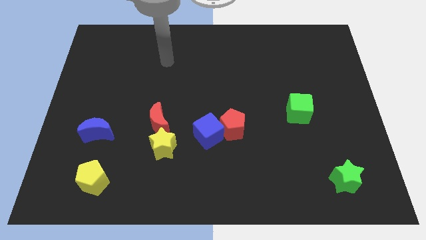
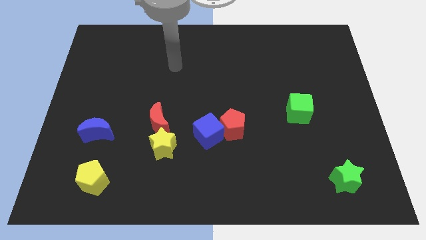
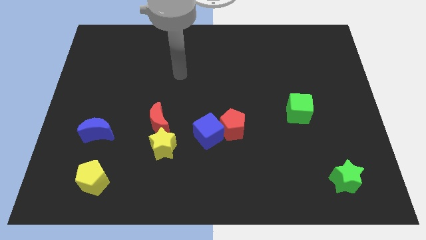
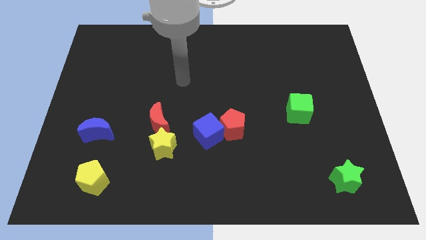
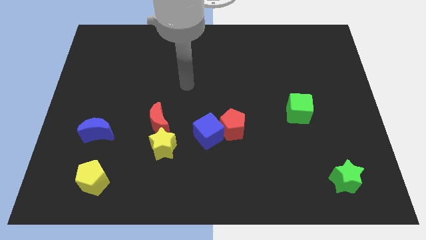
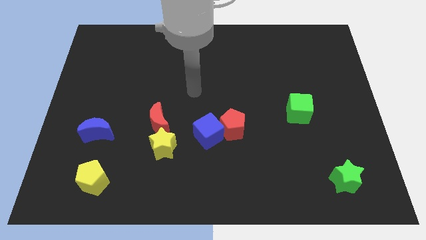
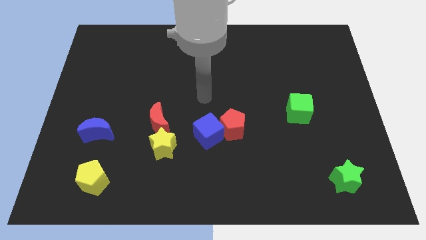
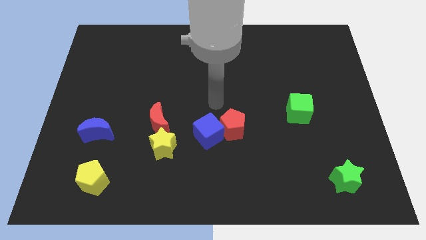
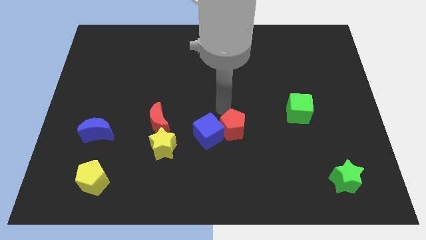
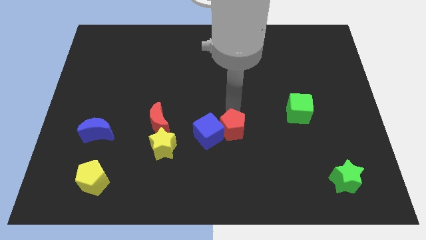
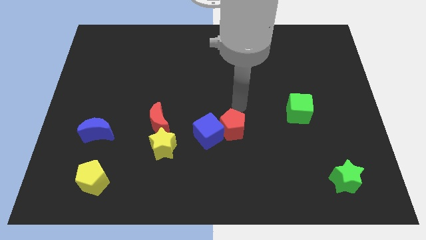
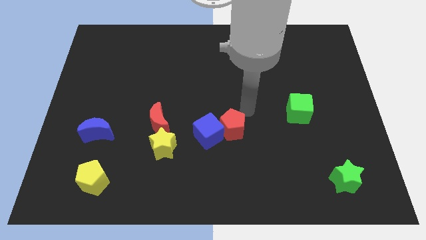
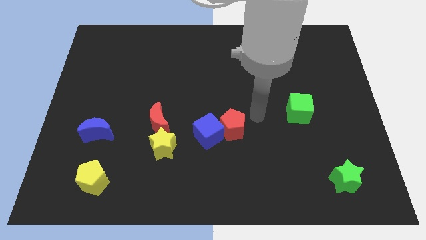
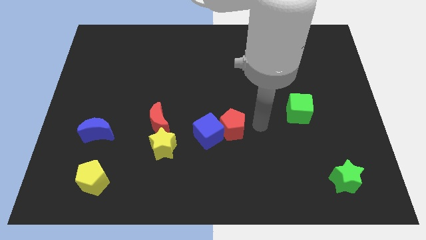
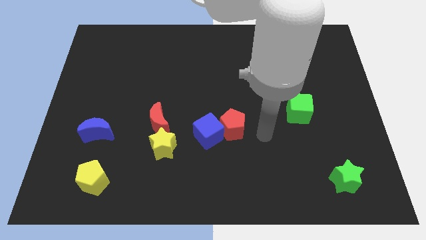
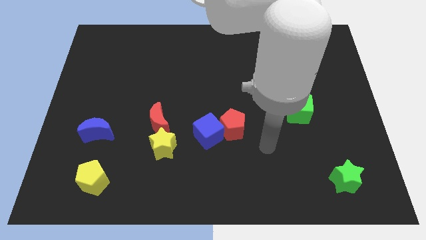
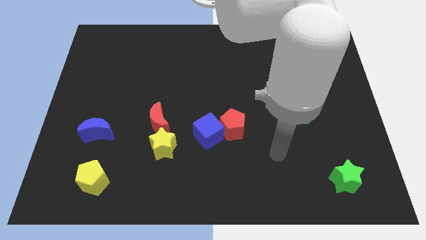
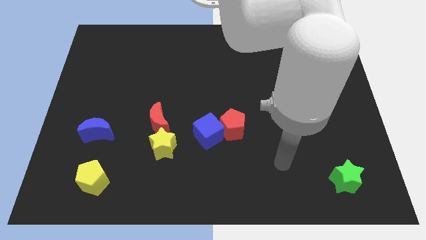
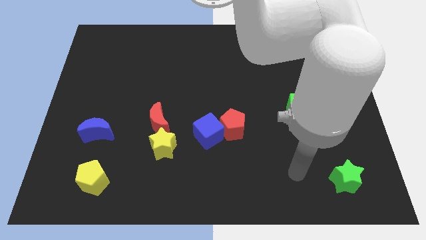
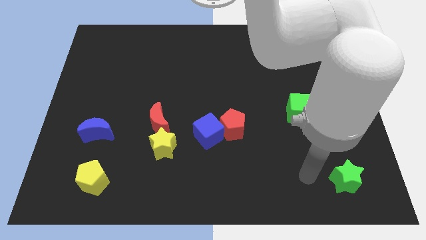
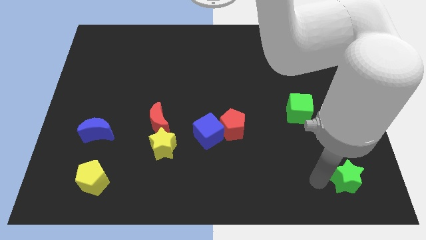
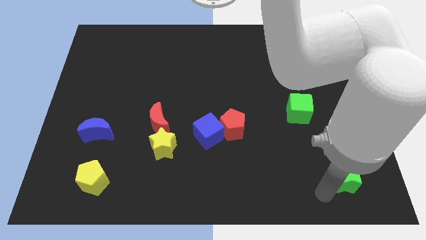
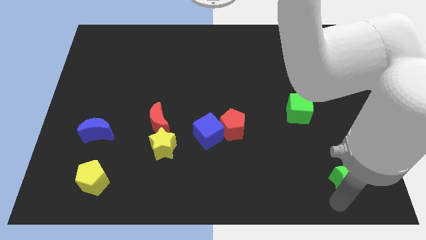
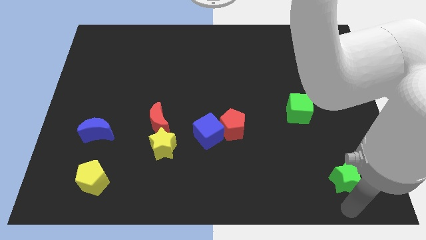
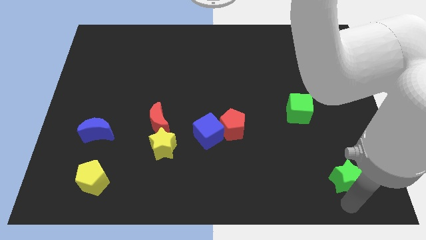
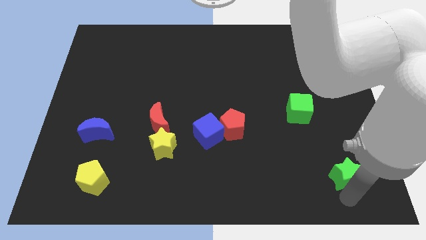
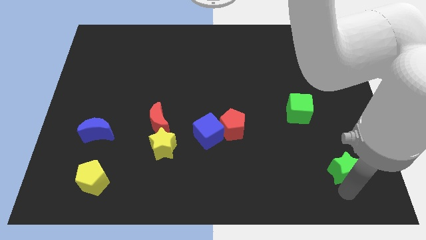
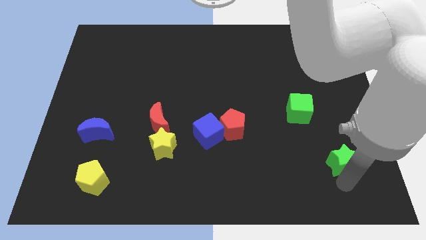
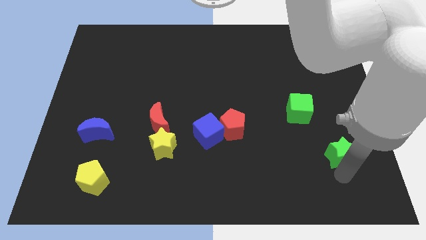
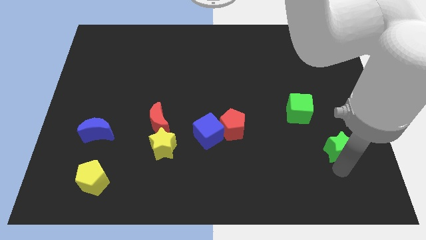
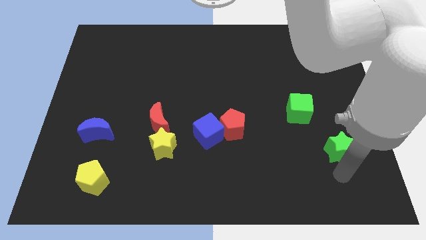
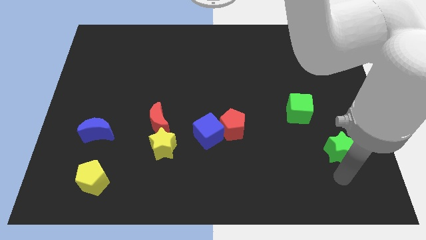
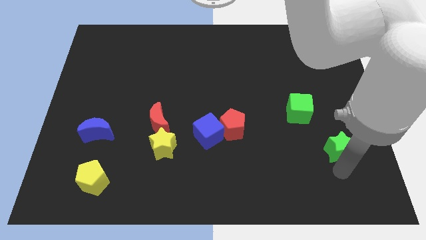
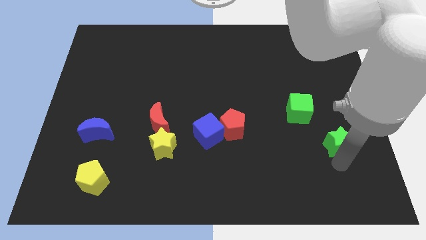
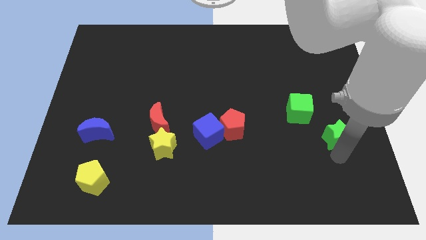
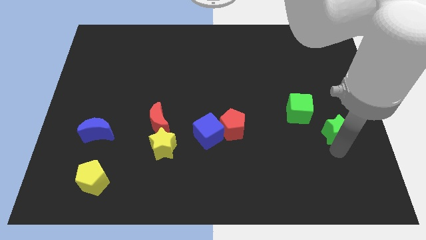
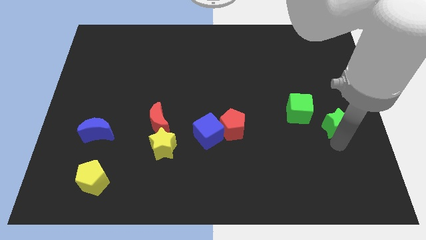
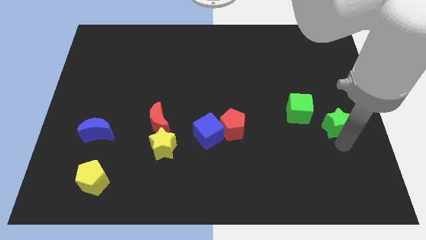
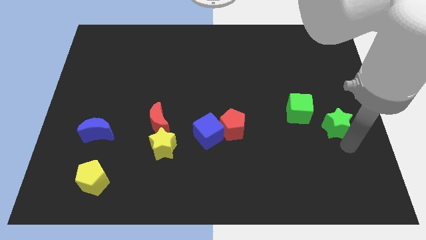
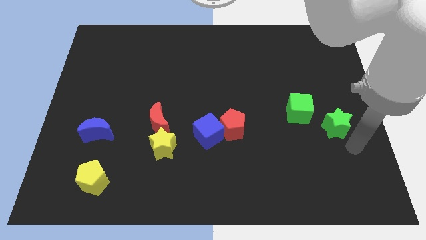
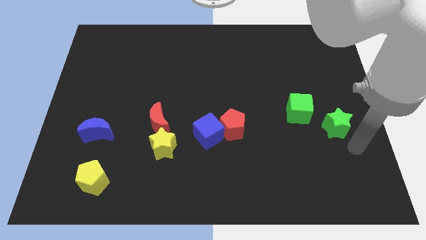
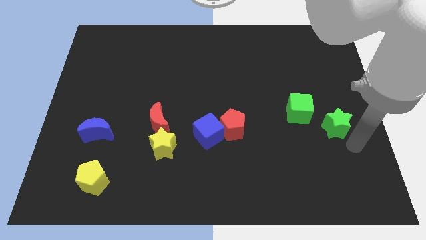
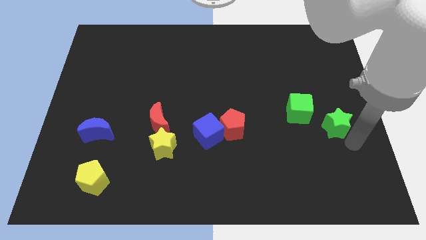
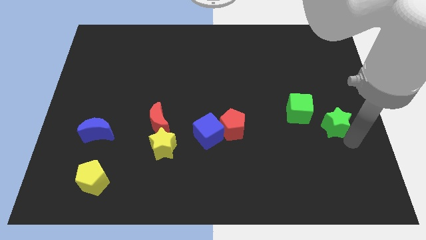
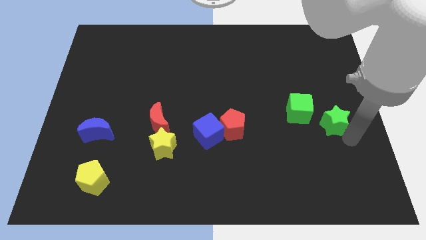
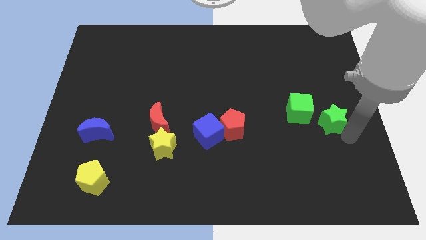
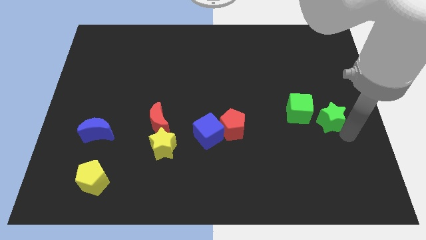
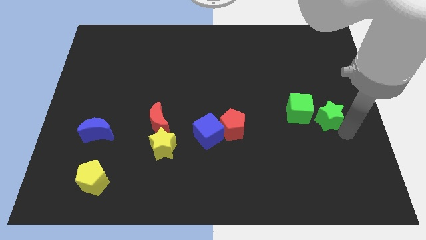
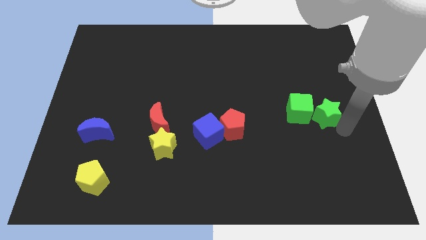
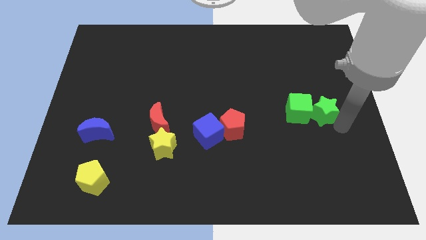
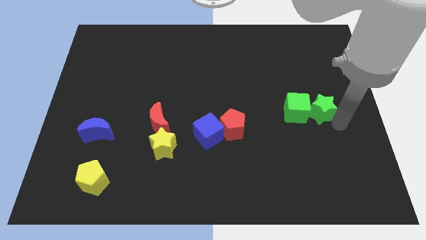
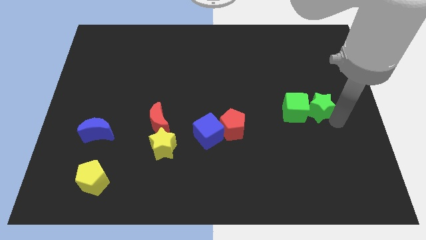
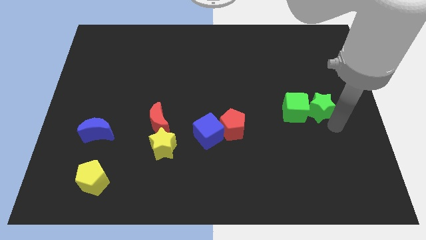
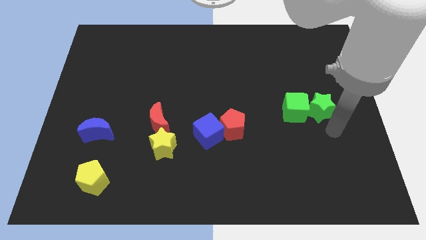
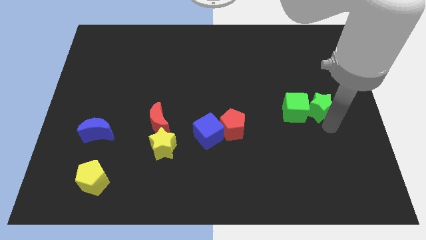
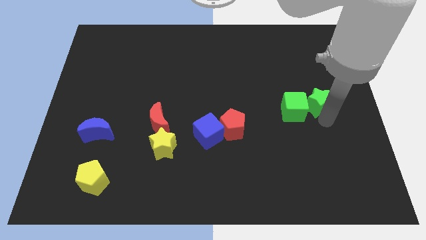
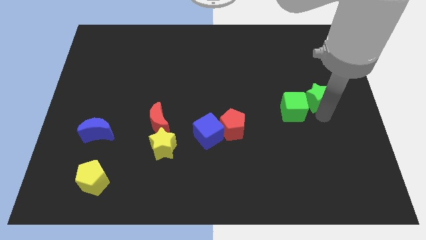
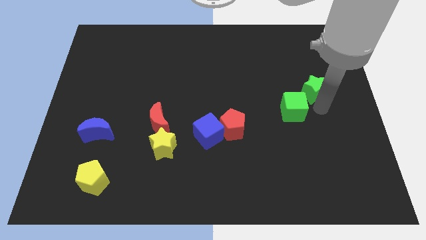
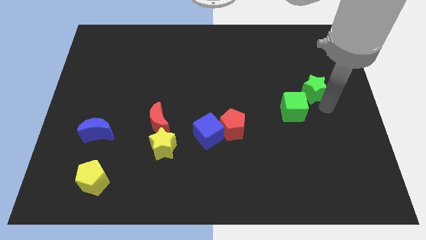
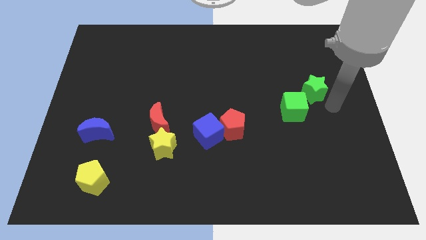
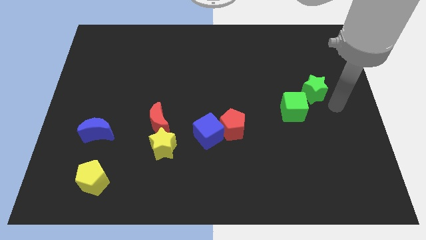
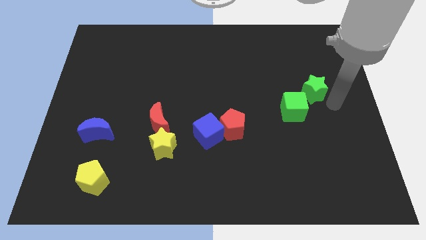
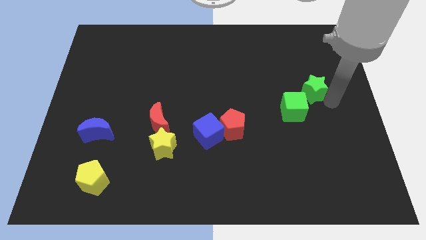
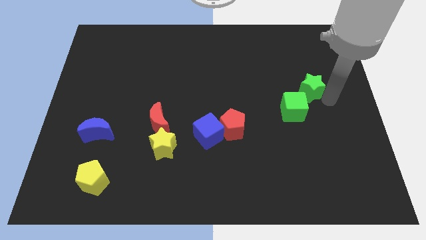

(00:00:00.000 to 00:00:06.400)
put the green star above the green cube

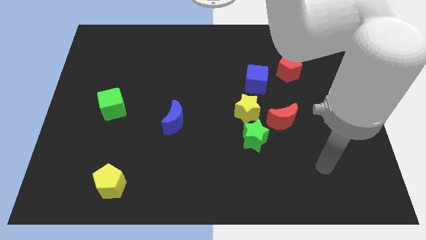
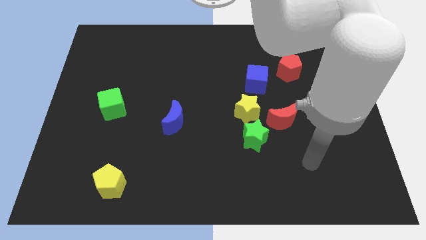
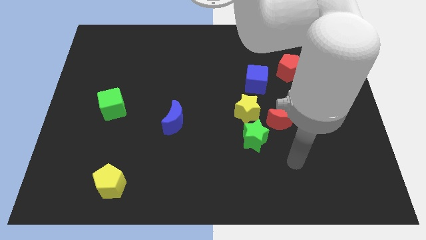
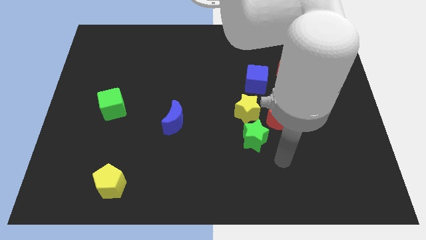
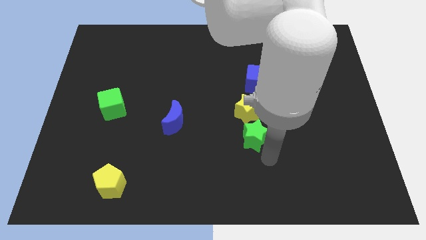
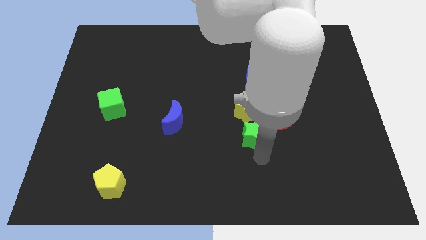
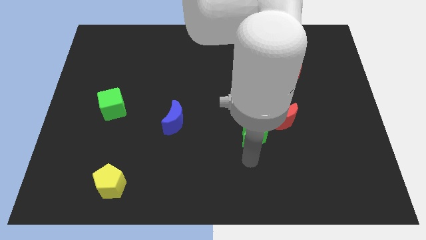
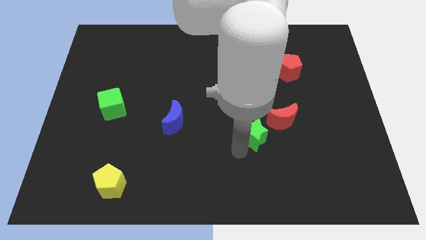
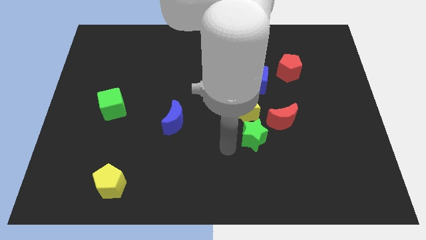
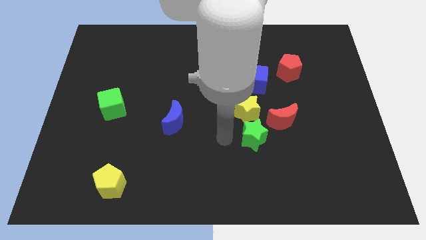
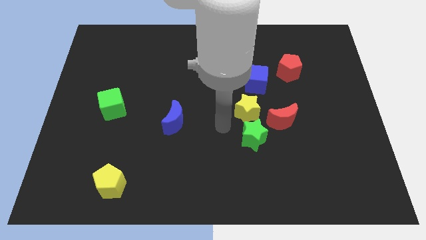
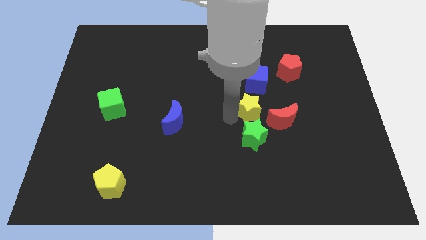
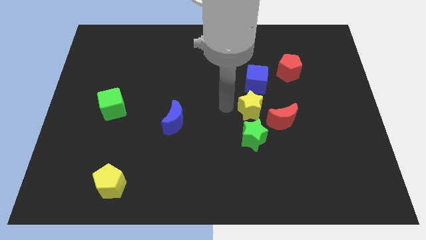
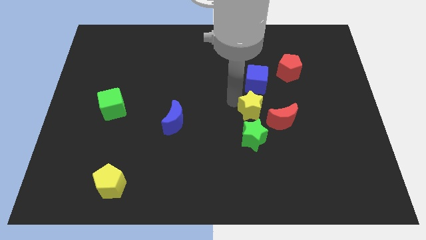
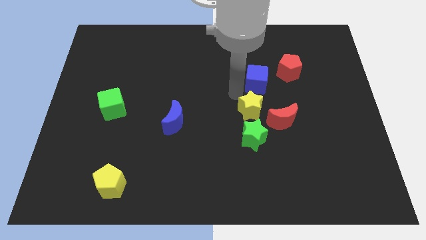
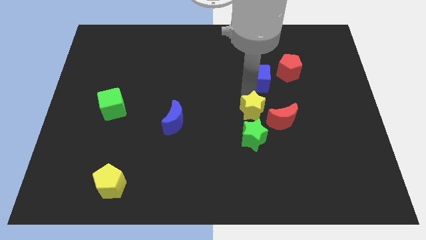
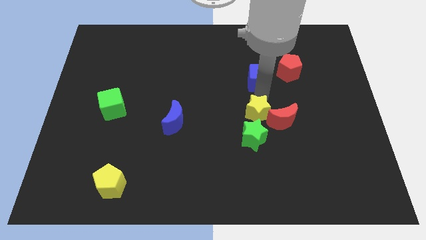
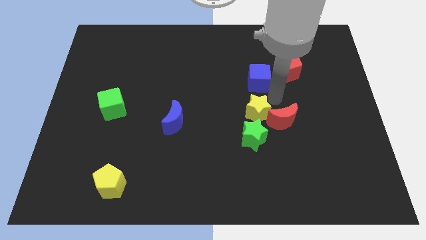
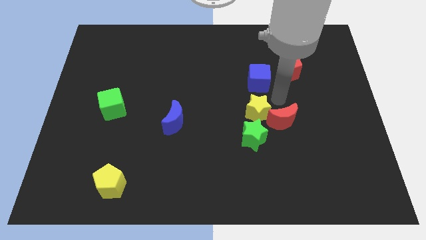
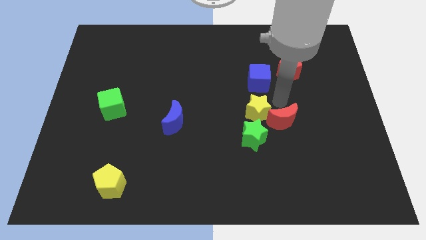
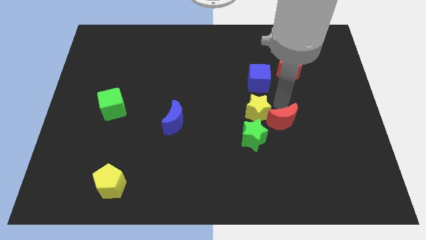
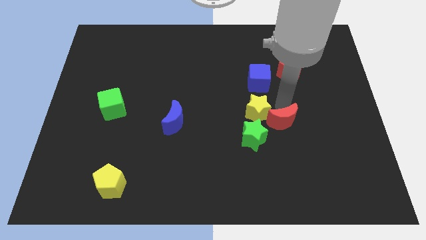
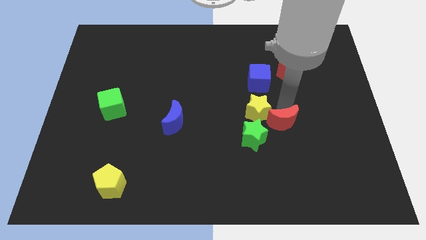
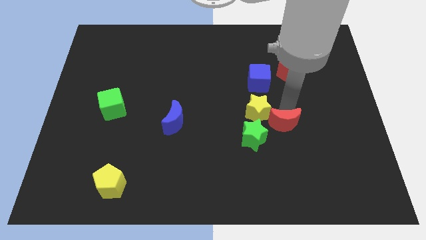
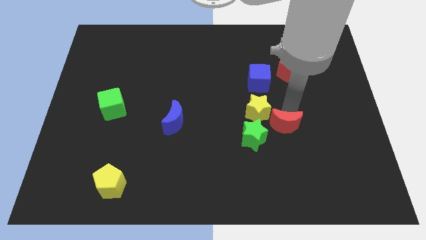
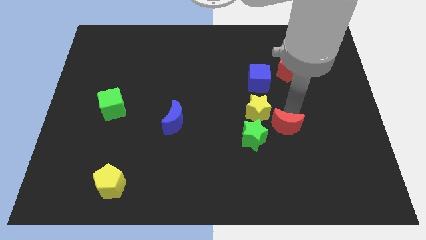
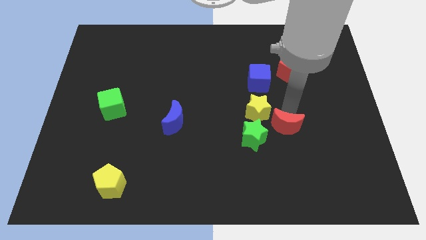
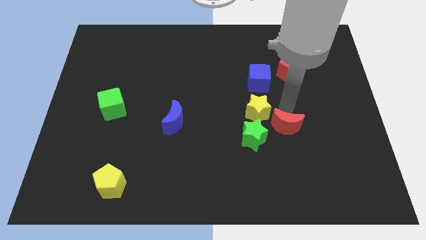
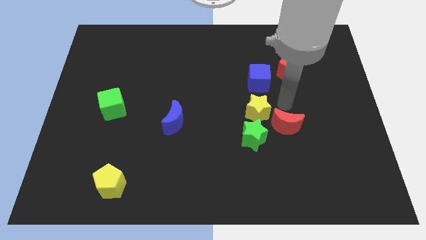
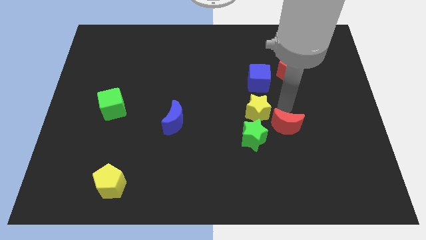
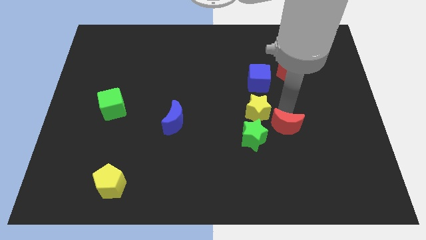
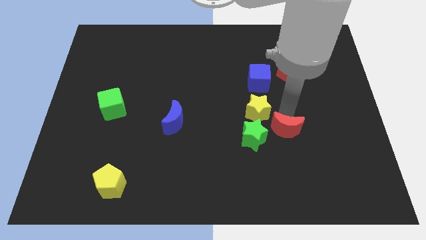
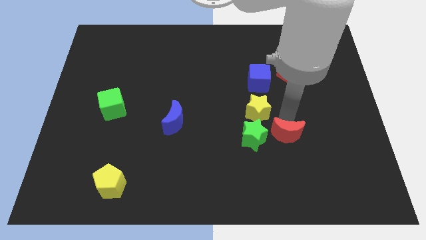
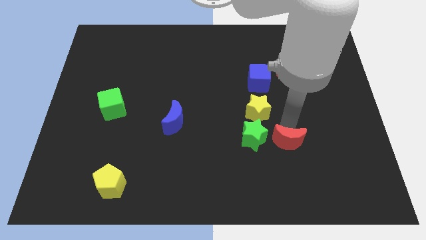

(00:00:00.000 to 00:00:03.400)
push the red moon to the bottom right side of the green star
